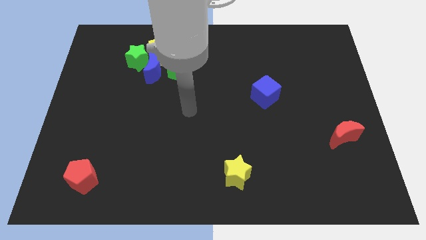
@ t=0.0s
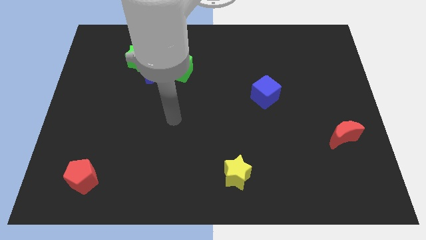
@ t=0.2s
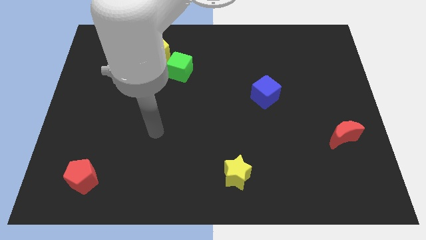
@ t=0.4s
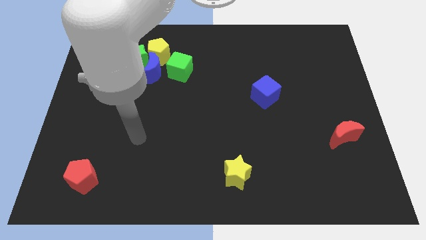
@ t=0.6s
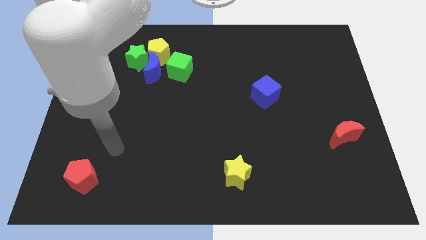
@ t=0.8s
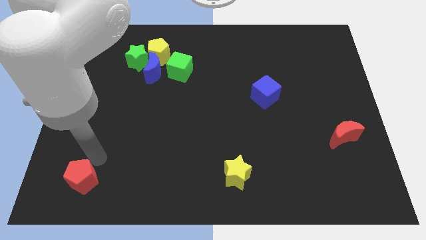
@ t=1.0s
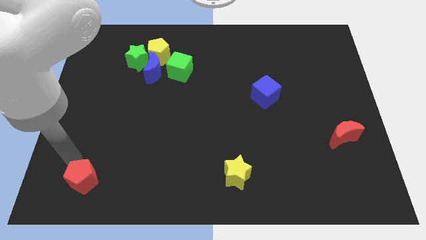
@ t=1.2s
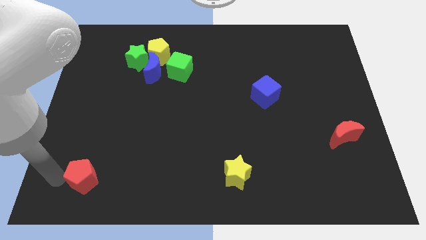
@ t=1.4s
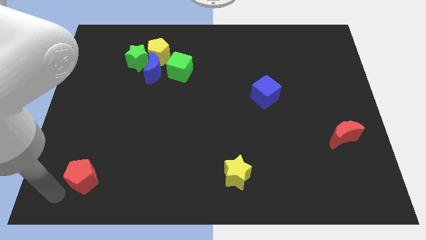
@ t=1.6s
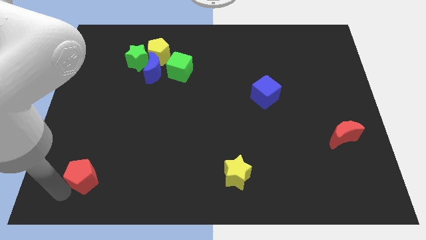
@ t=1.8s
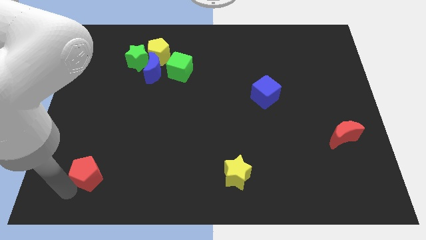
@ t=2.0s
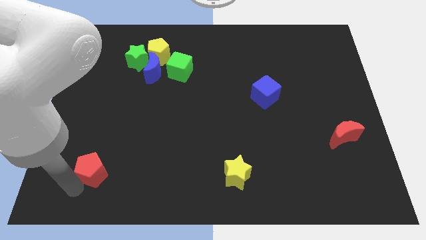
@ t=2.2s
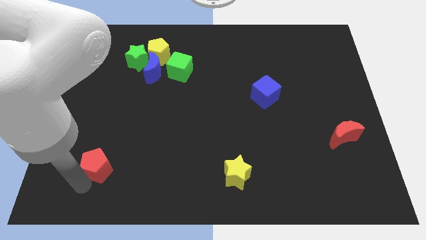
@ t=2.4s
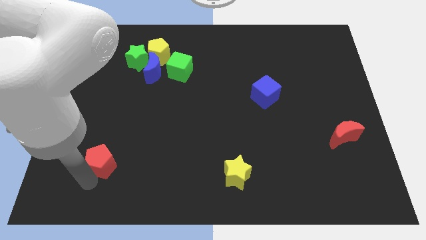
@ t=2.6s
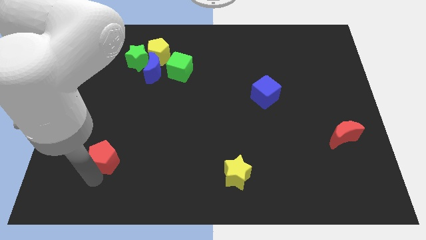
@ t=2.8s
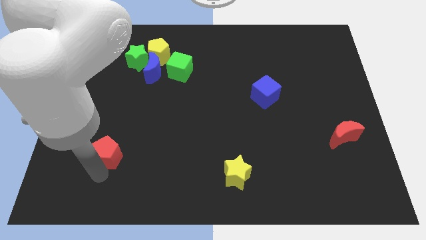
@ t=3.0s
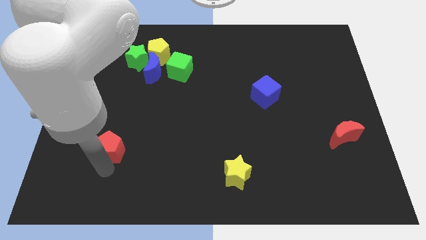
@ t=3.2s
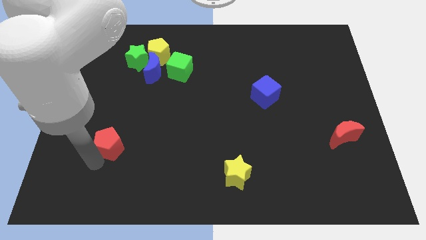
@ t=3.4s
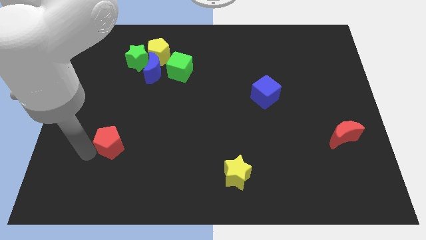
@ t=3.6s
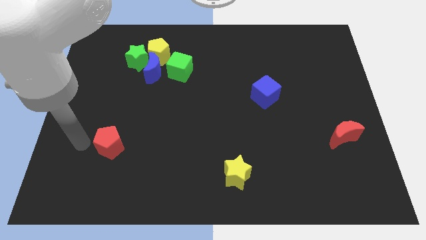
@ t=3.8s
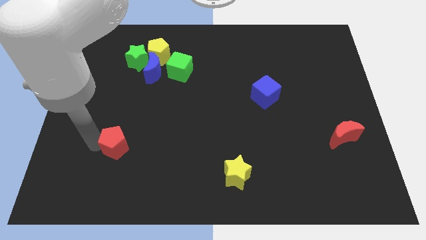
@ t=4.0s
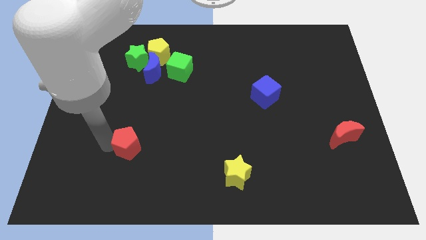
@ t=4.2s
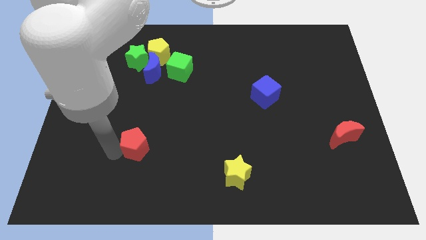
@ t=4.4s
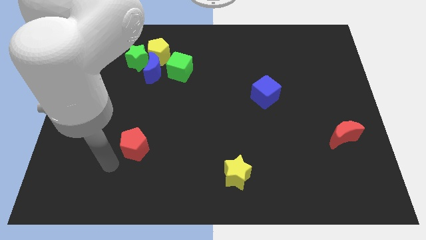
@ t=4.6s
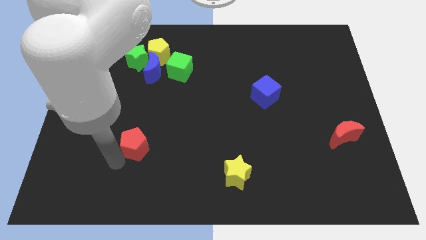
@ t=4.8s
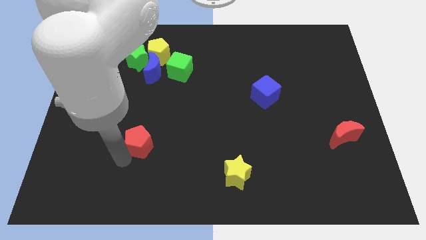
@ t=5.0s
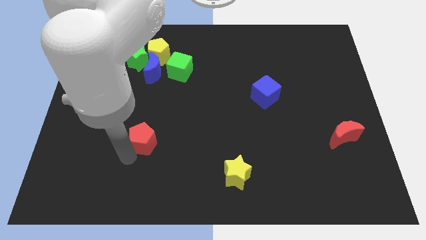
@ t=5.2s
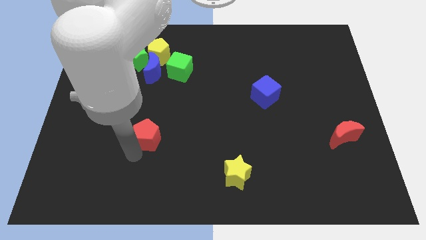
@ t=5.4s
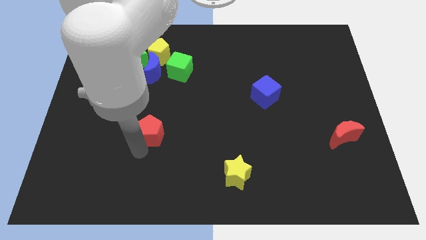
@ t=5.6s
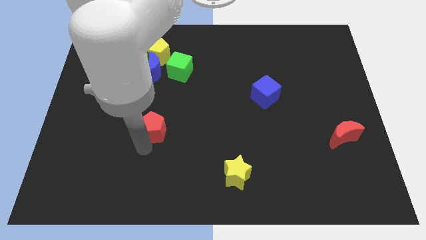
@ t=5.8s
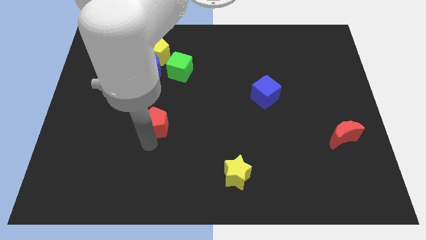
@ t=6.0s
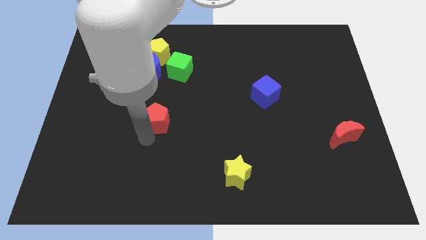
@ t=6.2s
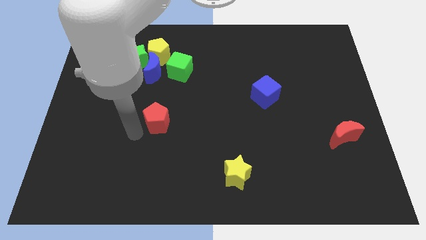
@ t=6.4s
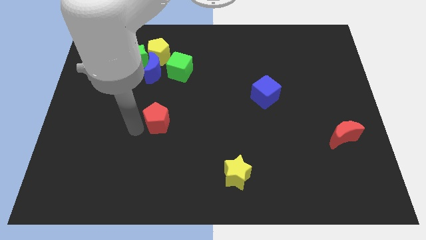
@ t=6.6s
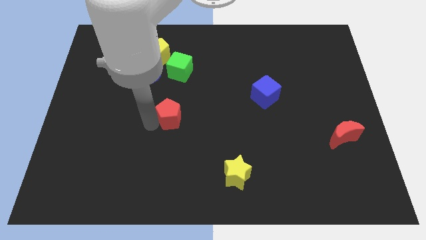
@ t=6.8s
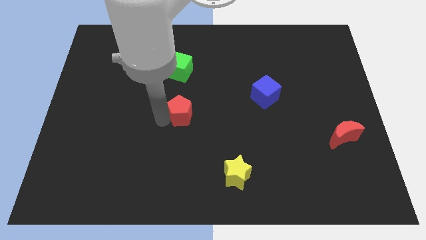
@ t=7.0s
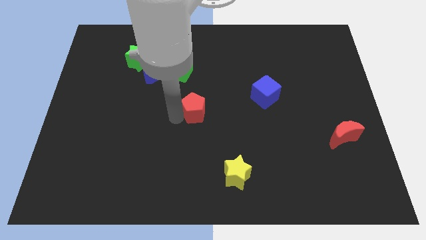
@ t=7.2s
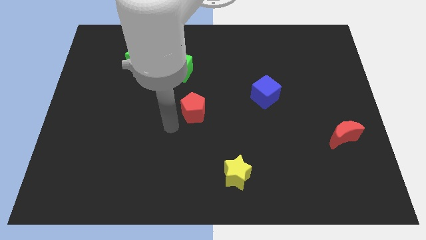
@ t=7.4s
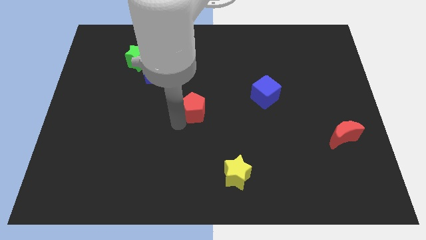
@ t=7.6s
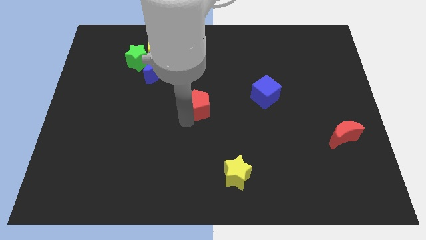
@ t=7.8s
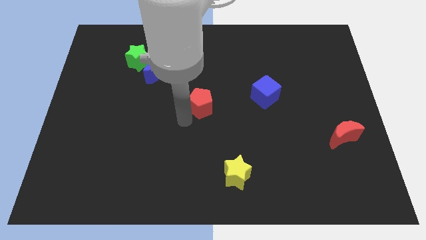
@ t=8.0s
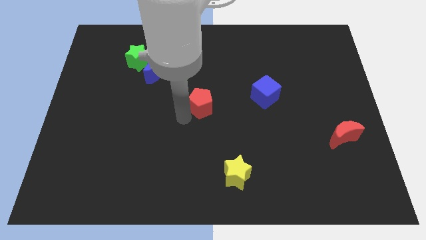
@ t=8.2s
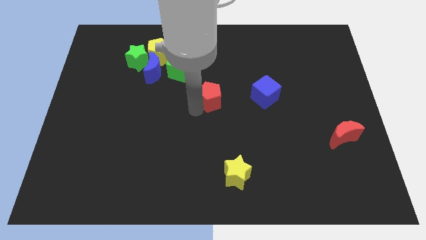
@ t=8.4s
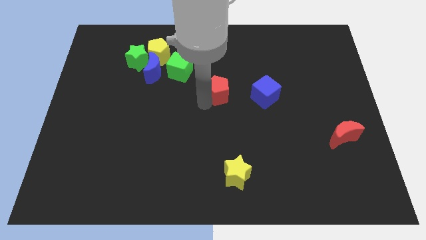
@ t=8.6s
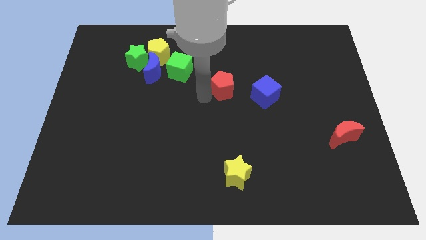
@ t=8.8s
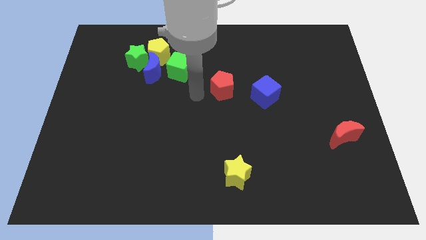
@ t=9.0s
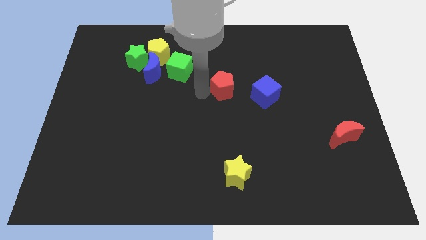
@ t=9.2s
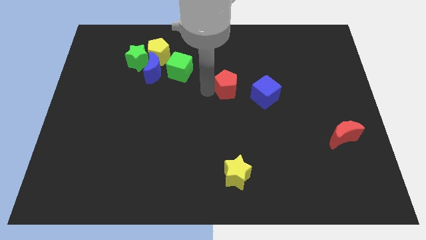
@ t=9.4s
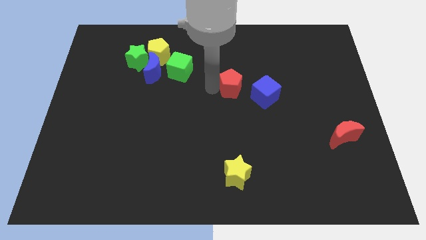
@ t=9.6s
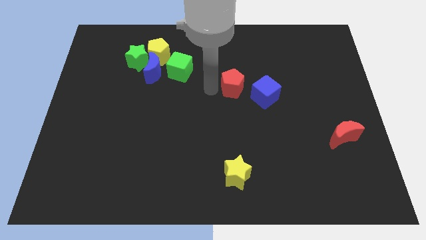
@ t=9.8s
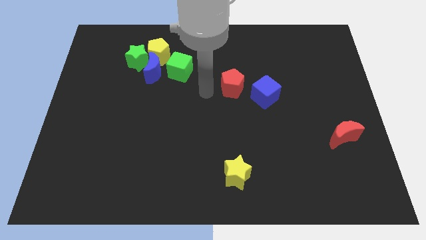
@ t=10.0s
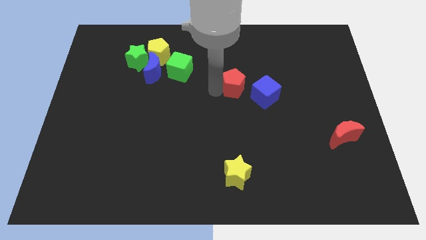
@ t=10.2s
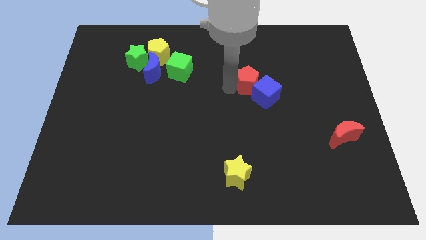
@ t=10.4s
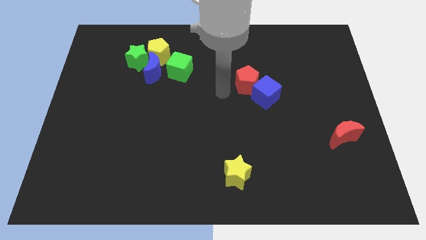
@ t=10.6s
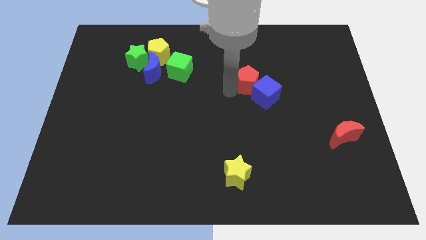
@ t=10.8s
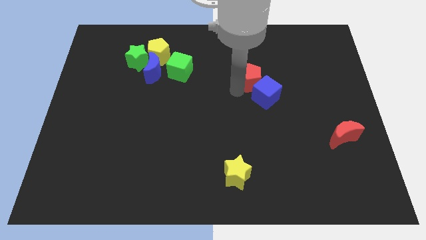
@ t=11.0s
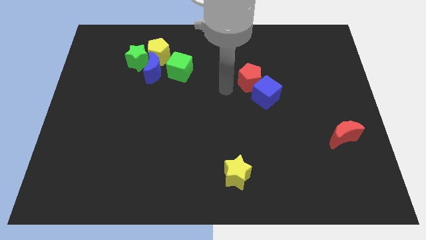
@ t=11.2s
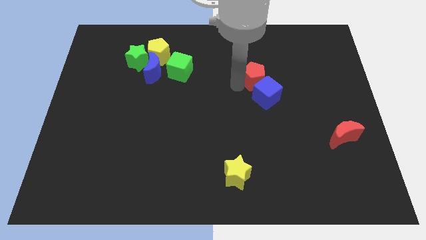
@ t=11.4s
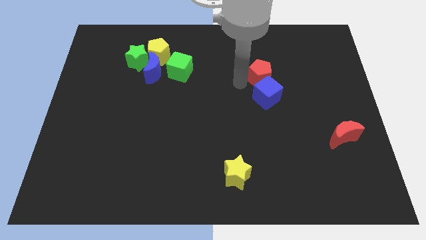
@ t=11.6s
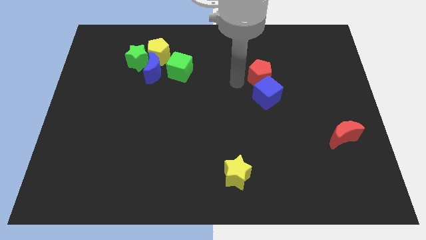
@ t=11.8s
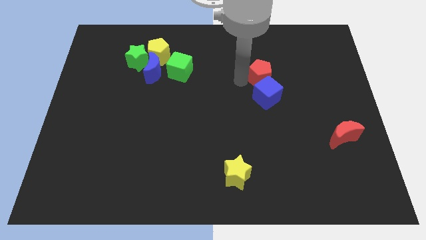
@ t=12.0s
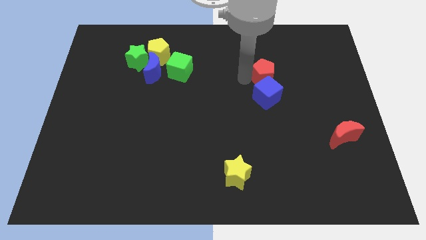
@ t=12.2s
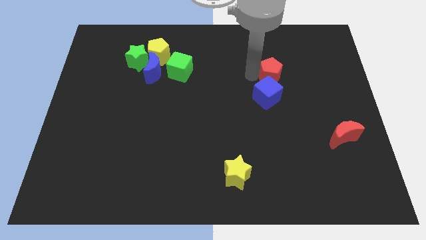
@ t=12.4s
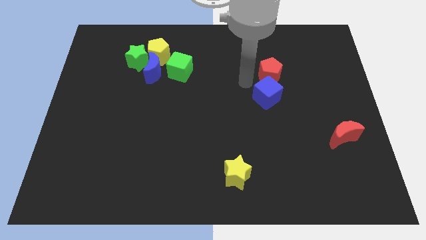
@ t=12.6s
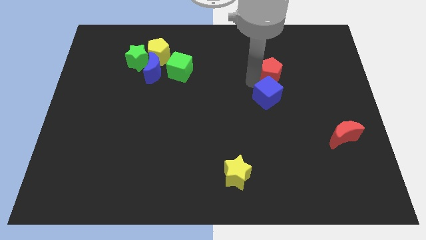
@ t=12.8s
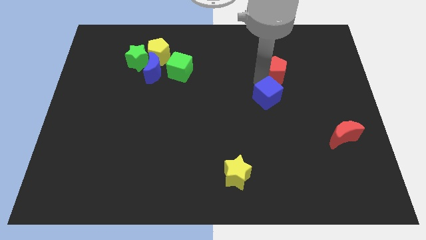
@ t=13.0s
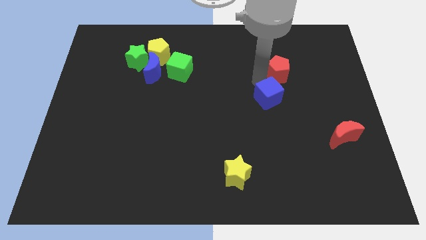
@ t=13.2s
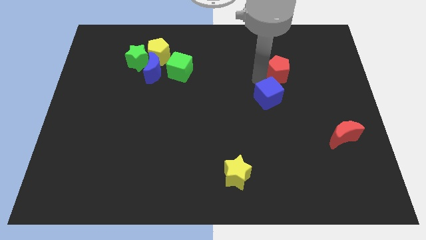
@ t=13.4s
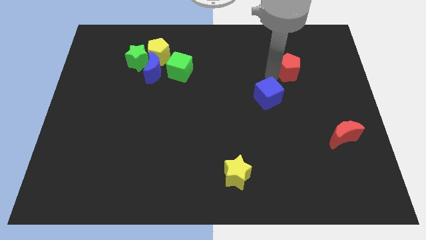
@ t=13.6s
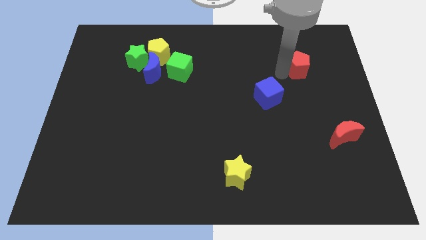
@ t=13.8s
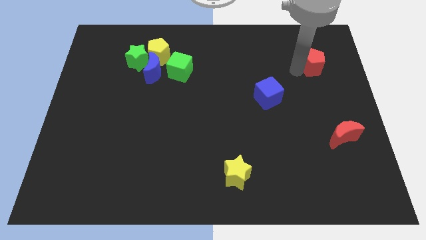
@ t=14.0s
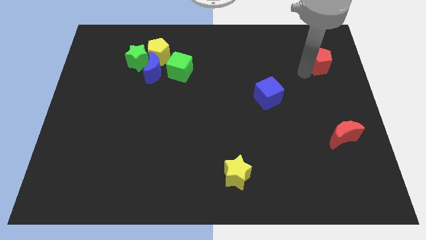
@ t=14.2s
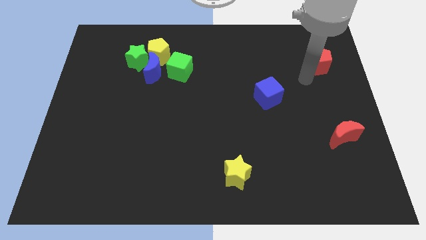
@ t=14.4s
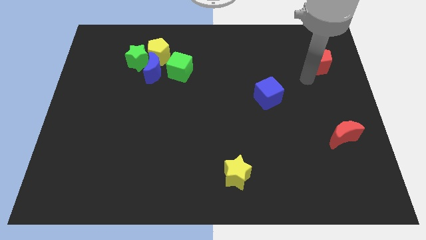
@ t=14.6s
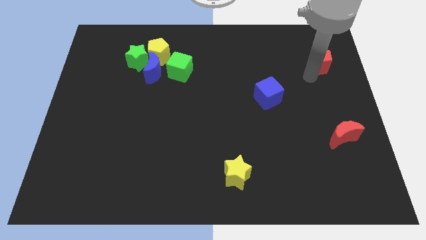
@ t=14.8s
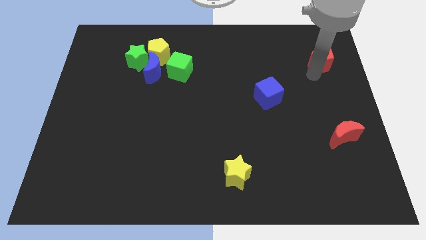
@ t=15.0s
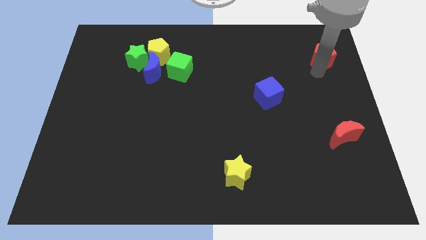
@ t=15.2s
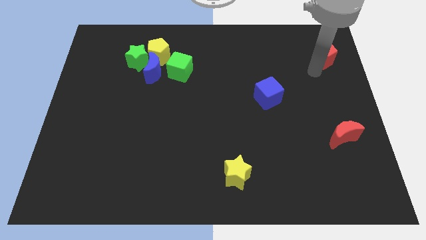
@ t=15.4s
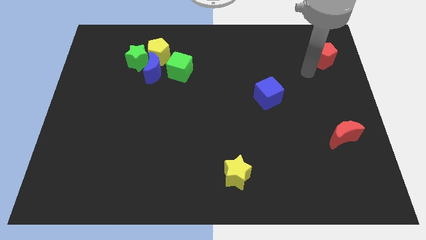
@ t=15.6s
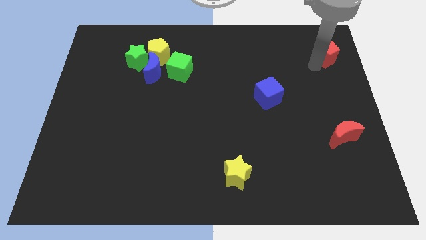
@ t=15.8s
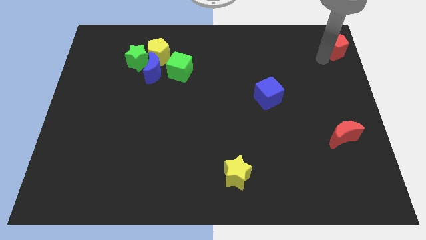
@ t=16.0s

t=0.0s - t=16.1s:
move the red pentagon to the top right of the board
